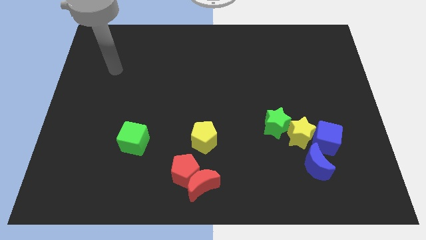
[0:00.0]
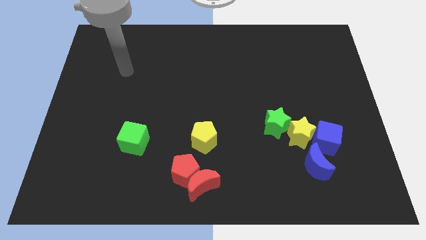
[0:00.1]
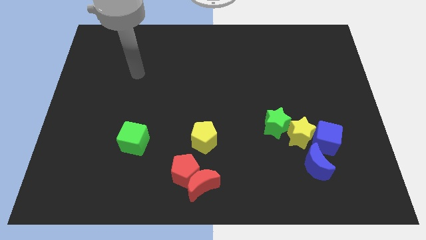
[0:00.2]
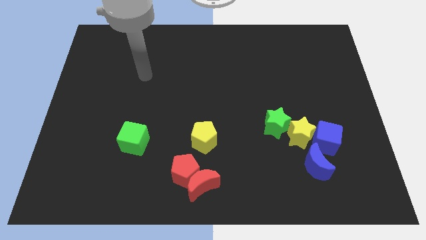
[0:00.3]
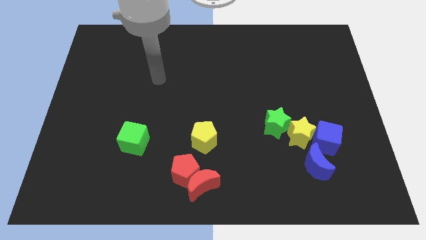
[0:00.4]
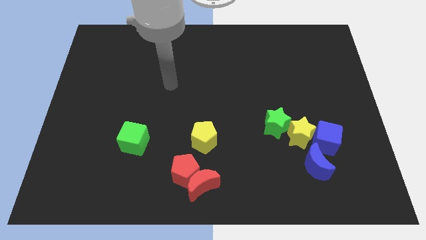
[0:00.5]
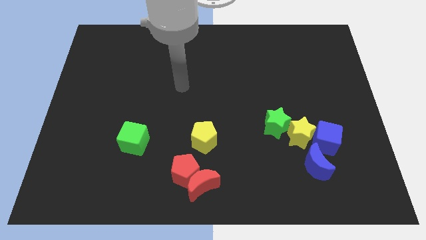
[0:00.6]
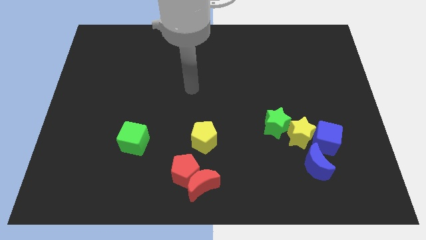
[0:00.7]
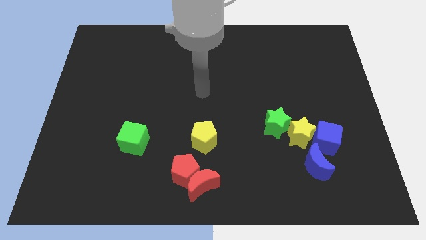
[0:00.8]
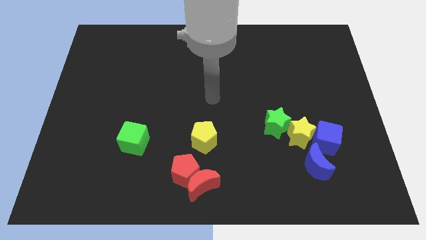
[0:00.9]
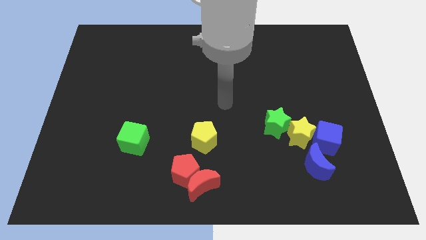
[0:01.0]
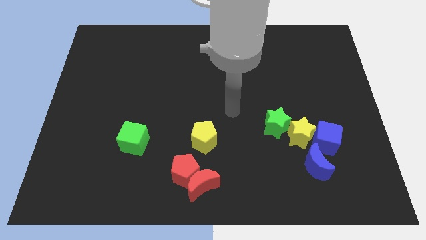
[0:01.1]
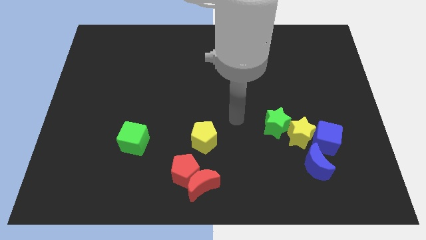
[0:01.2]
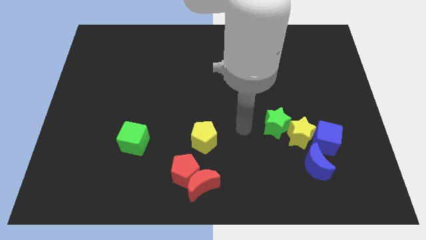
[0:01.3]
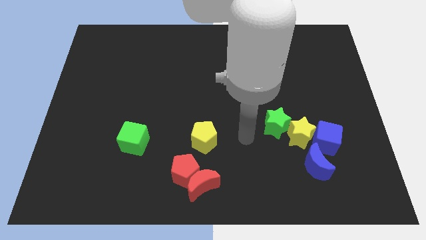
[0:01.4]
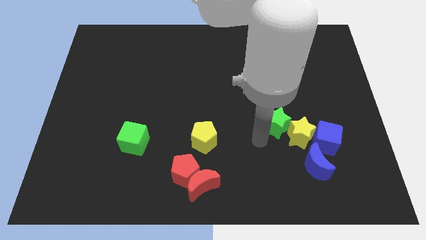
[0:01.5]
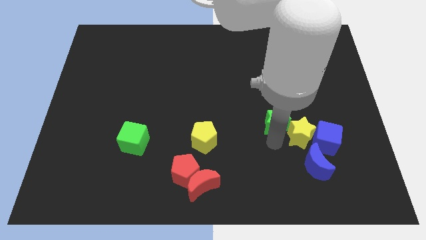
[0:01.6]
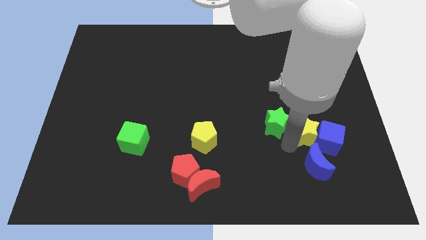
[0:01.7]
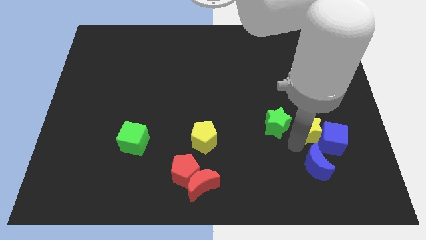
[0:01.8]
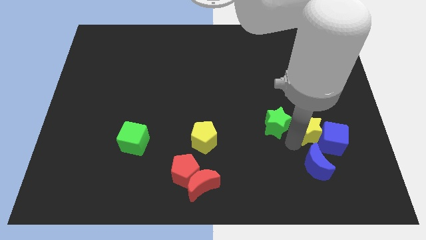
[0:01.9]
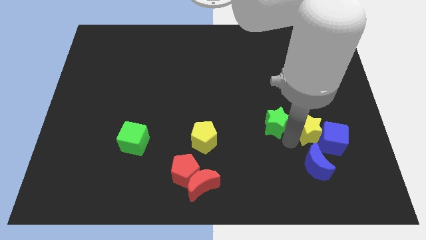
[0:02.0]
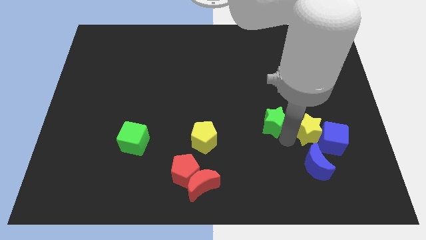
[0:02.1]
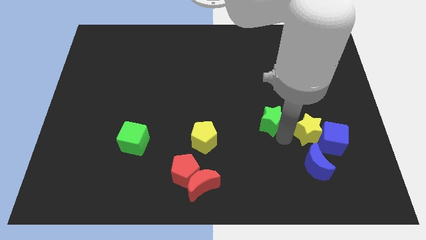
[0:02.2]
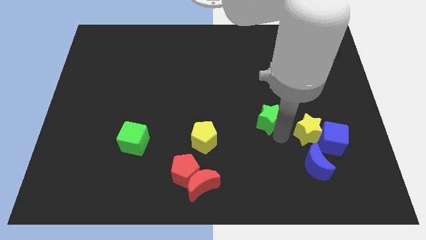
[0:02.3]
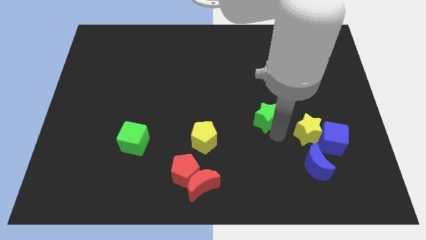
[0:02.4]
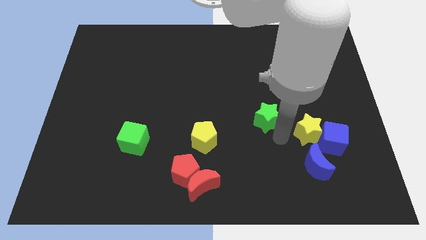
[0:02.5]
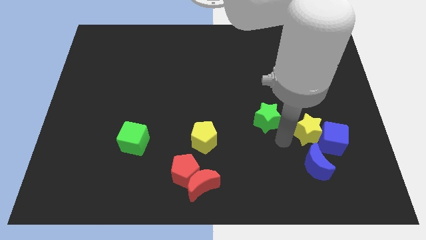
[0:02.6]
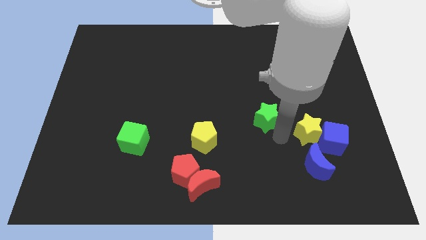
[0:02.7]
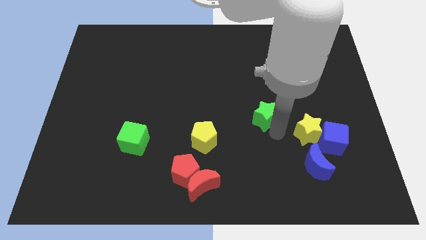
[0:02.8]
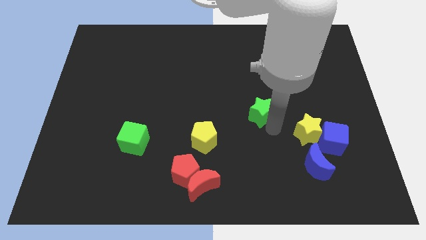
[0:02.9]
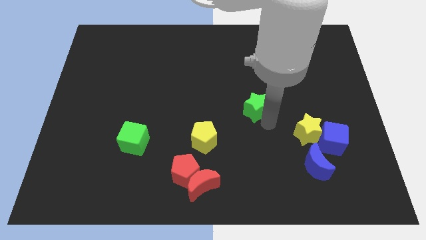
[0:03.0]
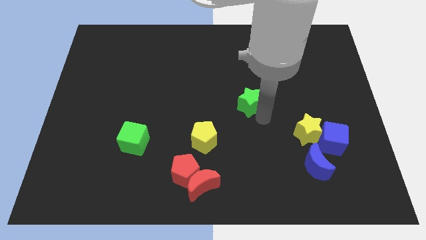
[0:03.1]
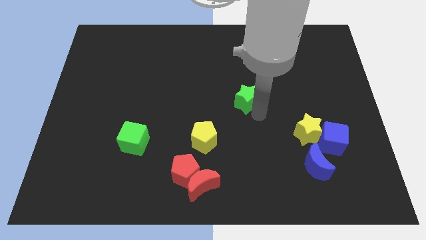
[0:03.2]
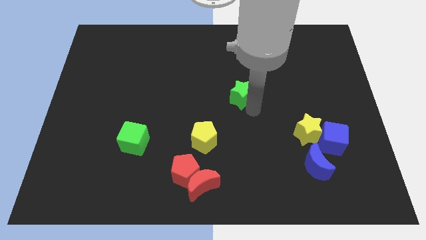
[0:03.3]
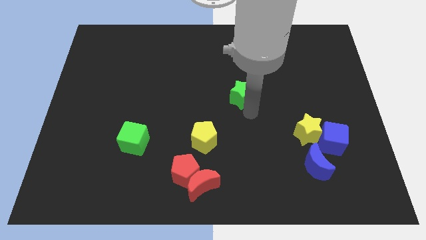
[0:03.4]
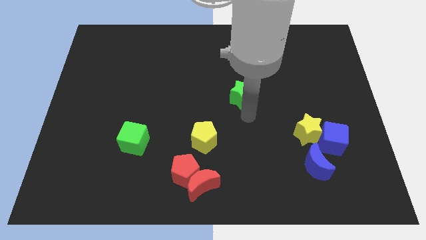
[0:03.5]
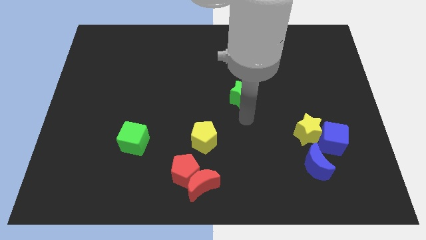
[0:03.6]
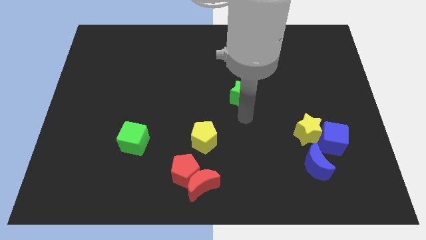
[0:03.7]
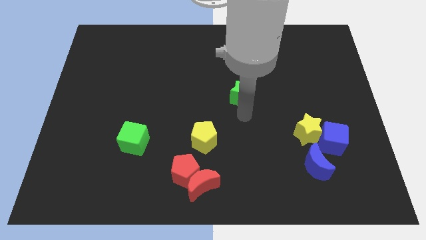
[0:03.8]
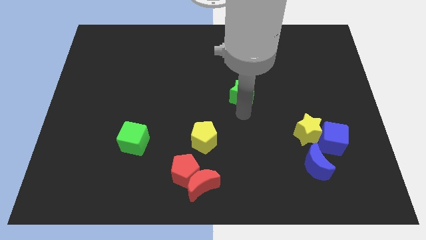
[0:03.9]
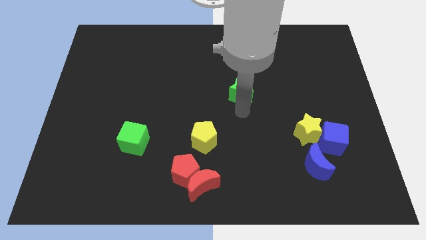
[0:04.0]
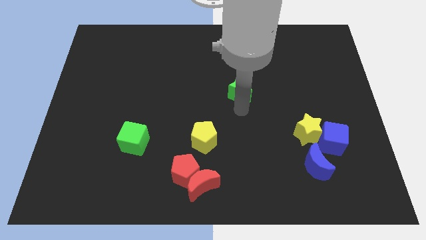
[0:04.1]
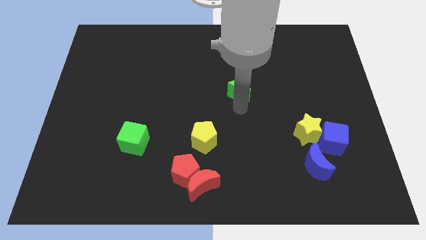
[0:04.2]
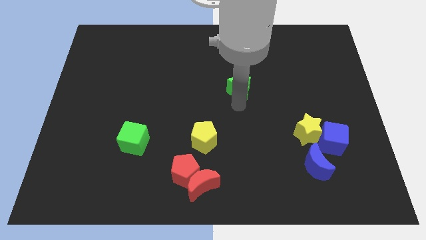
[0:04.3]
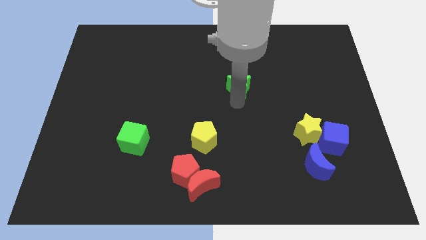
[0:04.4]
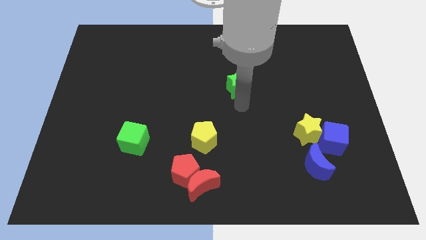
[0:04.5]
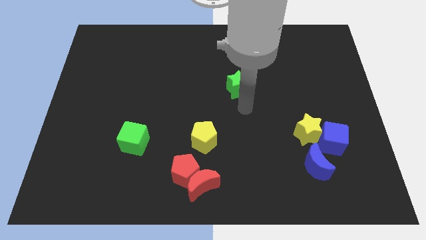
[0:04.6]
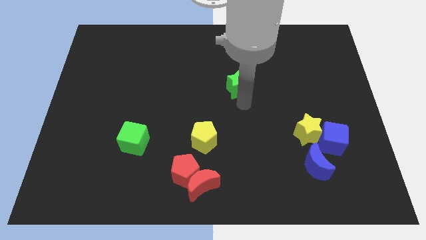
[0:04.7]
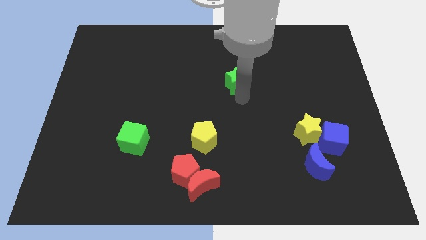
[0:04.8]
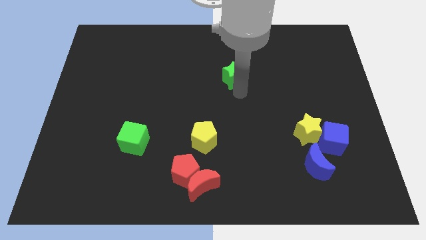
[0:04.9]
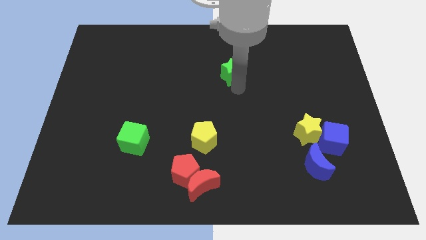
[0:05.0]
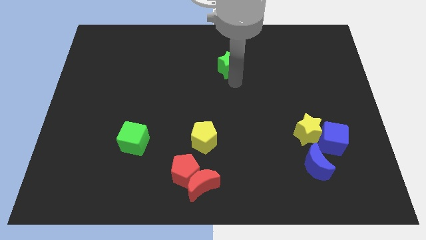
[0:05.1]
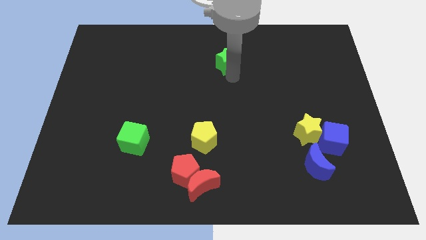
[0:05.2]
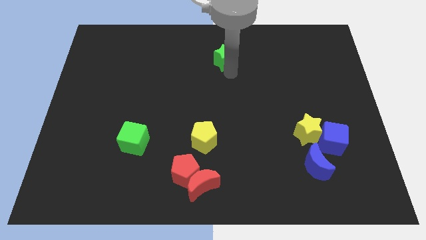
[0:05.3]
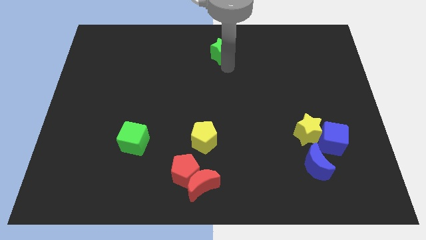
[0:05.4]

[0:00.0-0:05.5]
move the green star to the top
